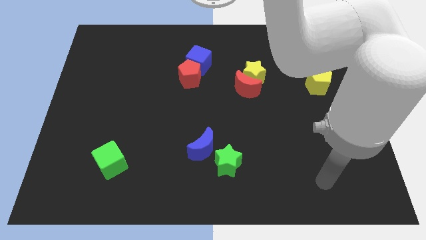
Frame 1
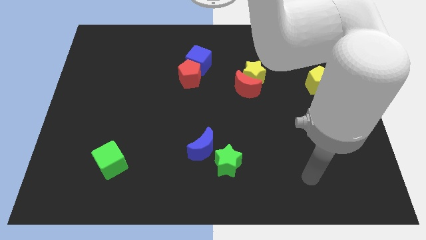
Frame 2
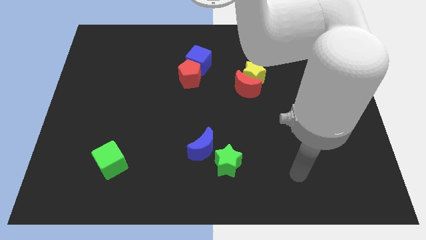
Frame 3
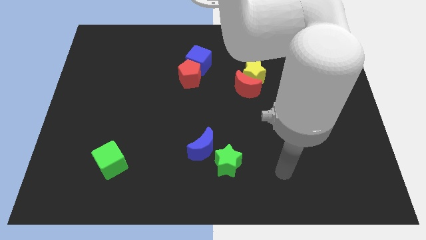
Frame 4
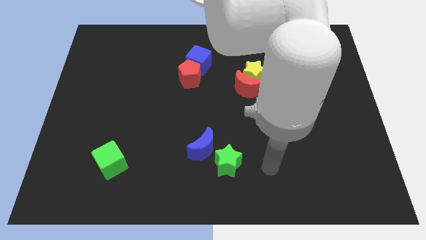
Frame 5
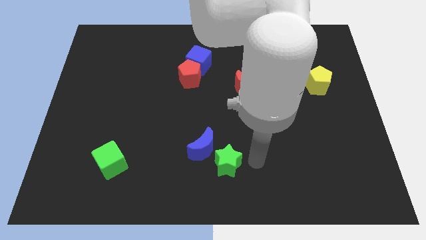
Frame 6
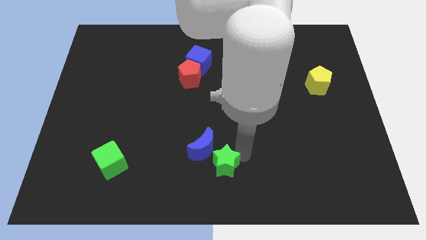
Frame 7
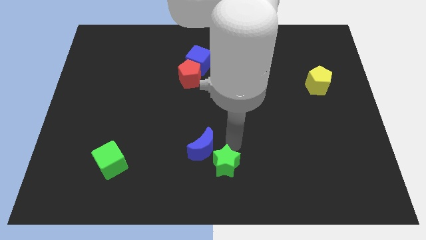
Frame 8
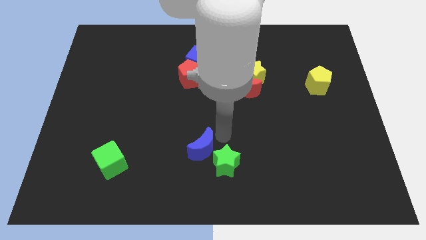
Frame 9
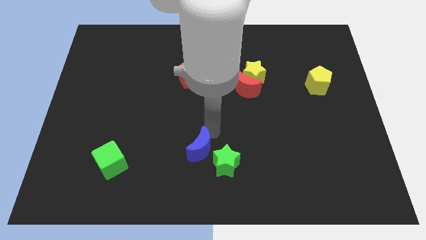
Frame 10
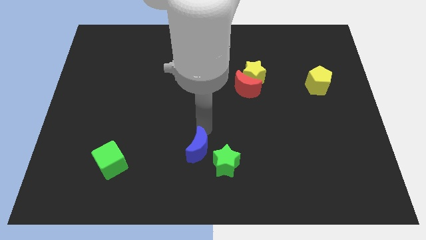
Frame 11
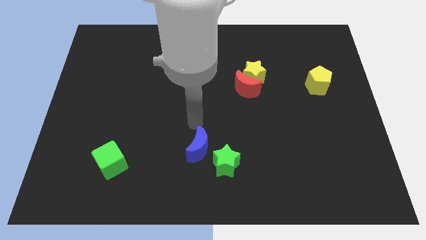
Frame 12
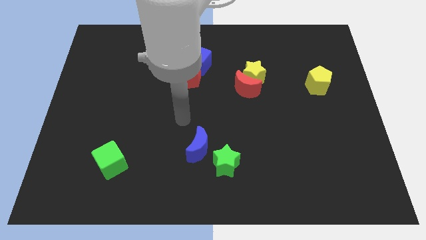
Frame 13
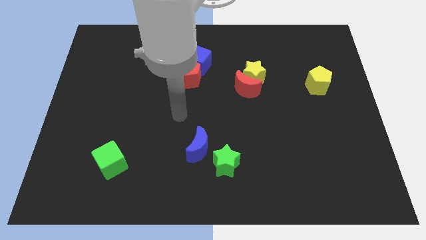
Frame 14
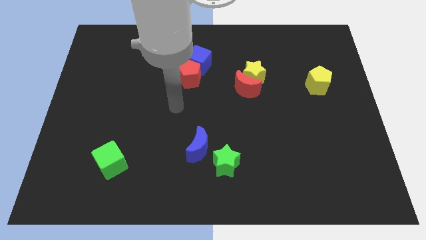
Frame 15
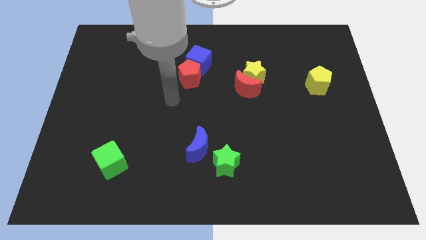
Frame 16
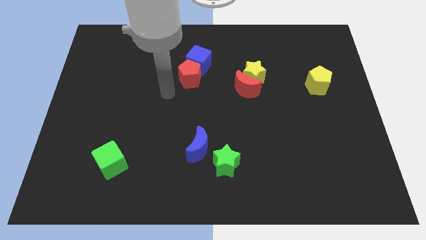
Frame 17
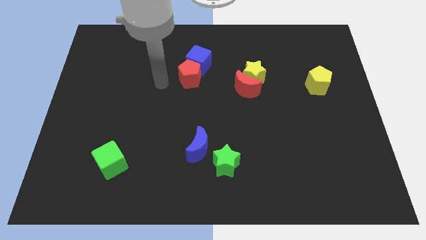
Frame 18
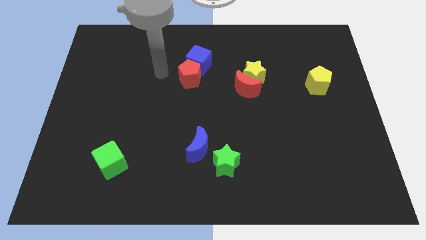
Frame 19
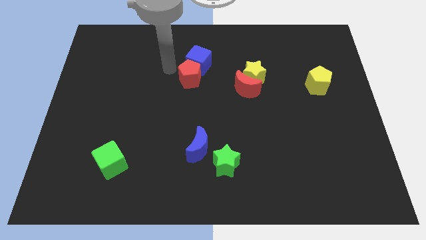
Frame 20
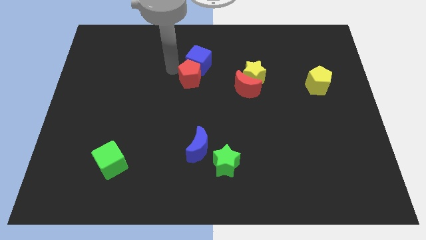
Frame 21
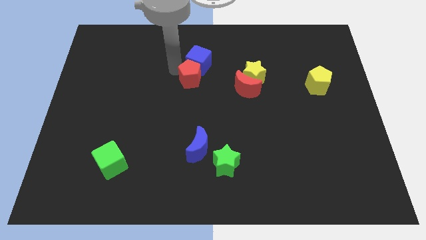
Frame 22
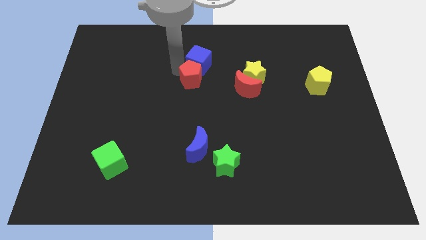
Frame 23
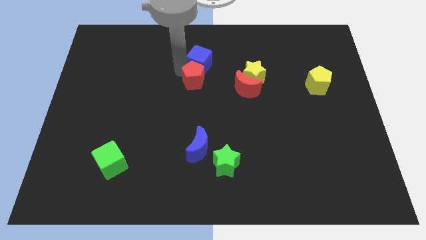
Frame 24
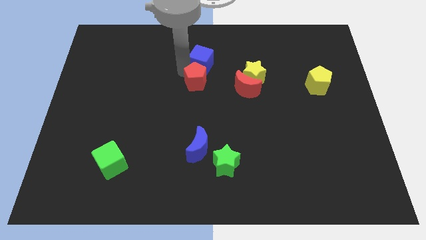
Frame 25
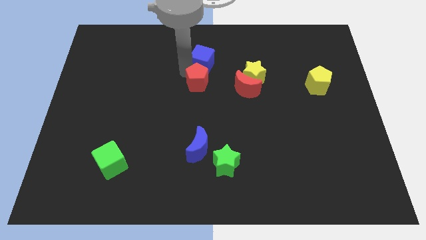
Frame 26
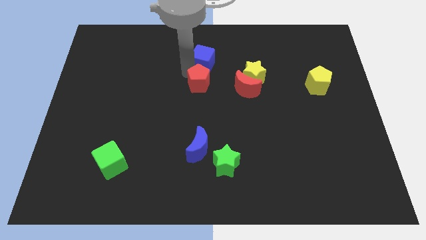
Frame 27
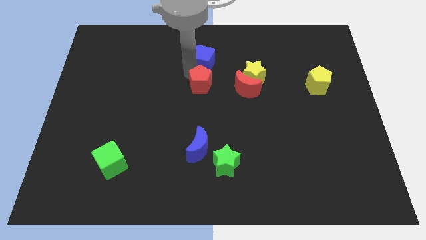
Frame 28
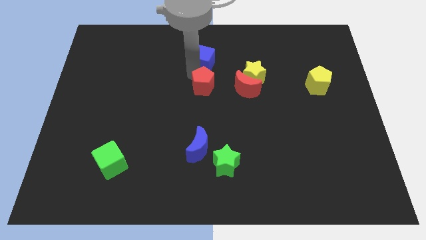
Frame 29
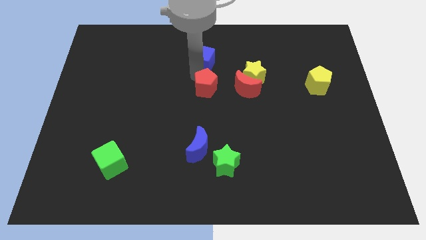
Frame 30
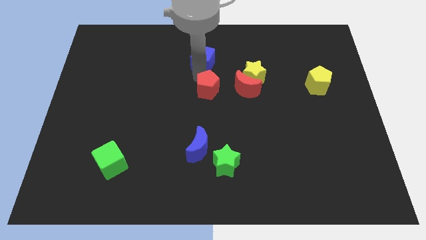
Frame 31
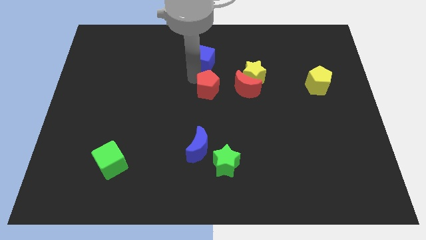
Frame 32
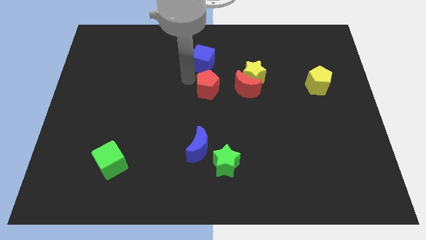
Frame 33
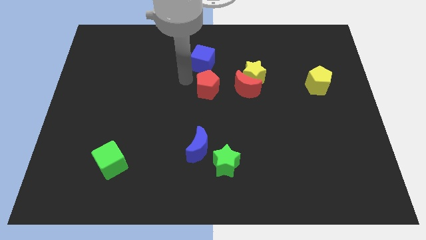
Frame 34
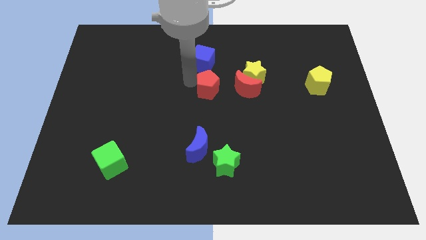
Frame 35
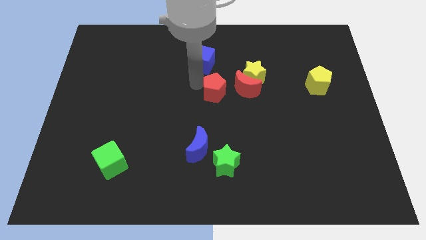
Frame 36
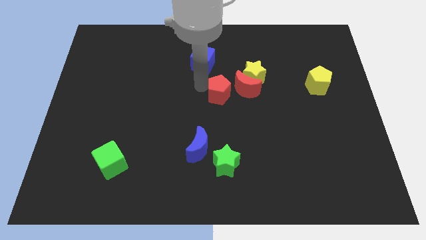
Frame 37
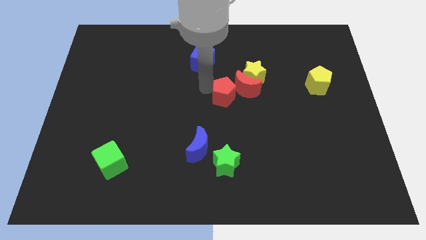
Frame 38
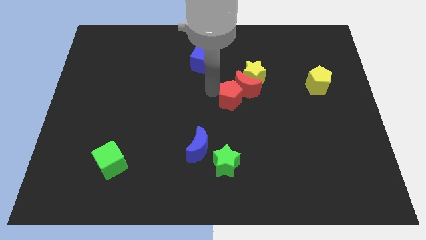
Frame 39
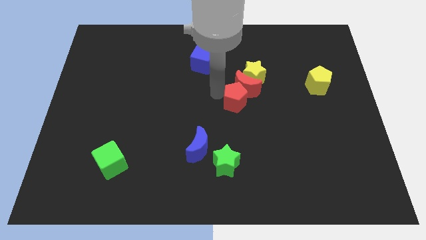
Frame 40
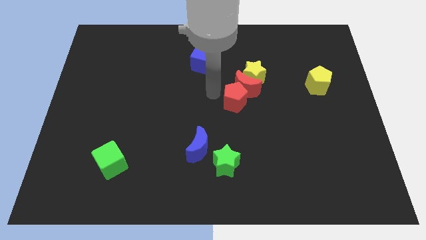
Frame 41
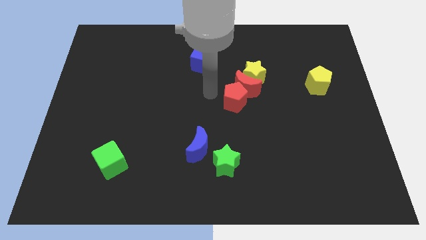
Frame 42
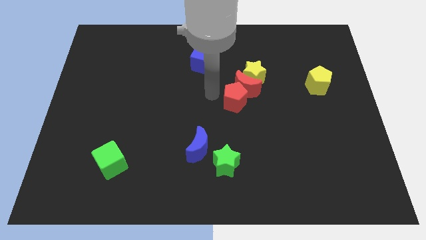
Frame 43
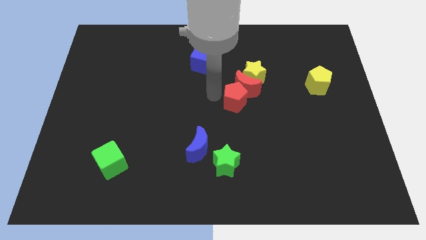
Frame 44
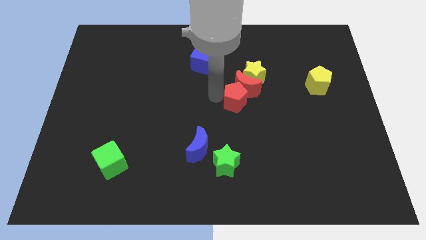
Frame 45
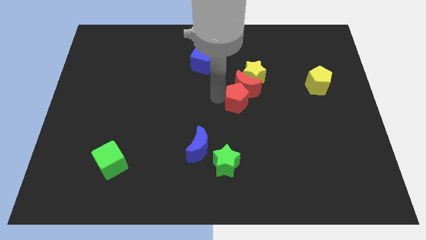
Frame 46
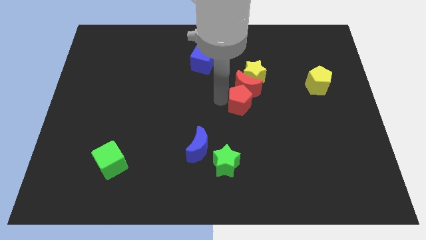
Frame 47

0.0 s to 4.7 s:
put the red pentagon to the bottom right of the red moon

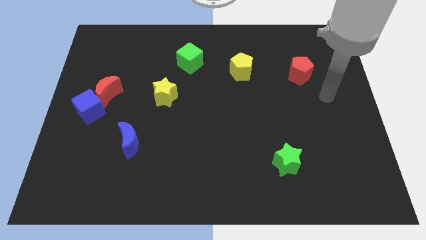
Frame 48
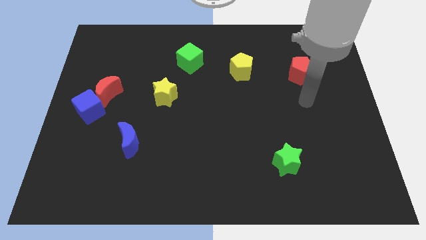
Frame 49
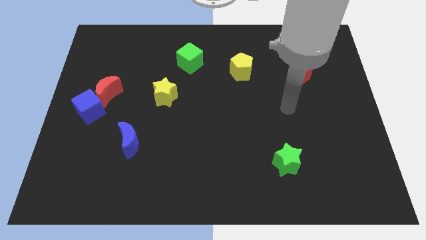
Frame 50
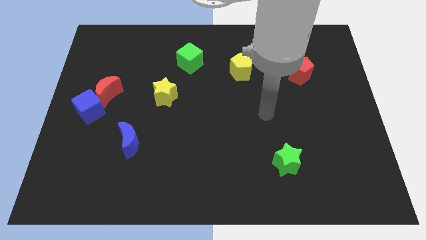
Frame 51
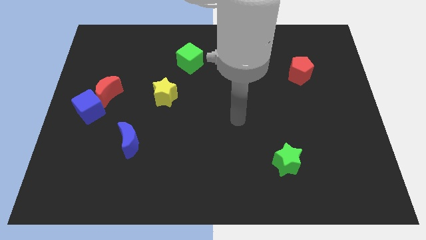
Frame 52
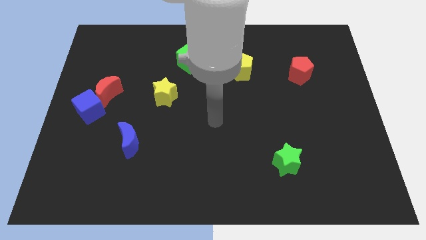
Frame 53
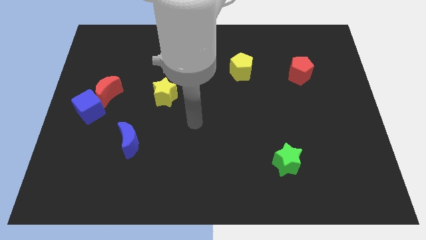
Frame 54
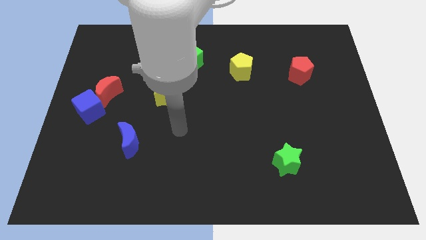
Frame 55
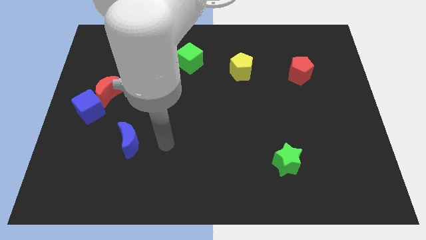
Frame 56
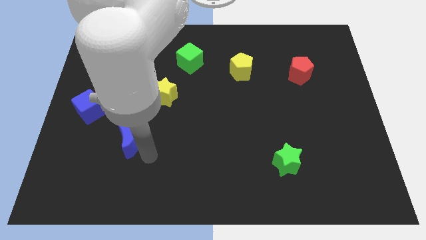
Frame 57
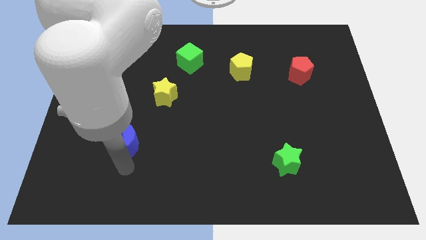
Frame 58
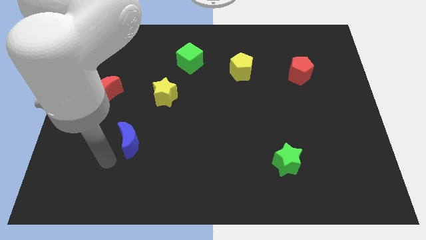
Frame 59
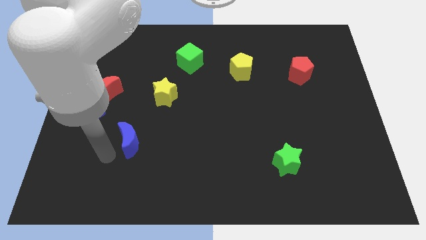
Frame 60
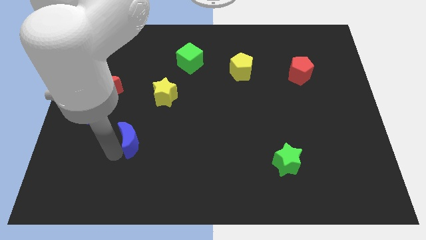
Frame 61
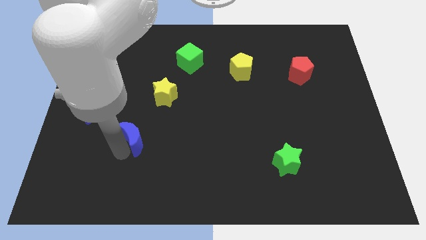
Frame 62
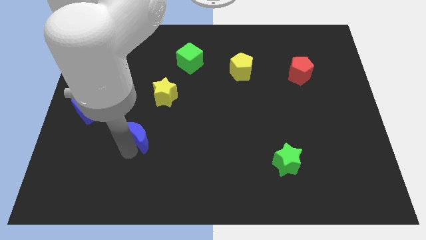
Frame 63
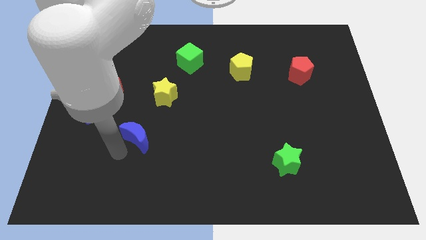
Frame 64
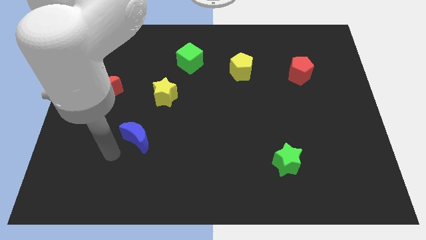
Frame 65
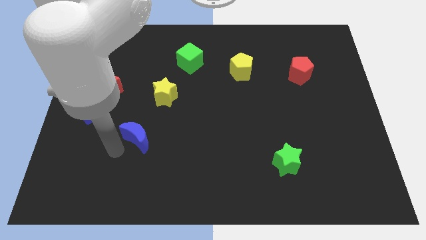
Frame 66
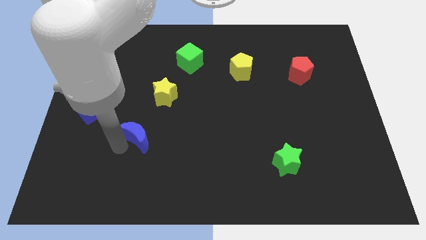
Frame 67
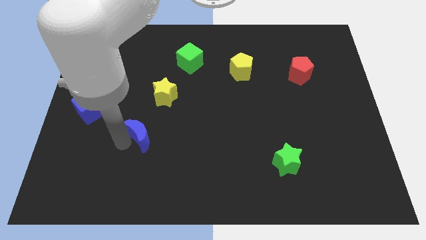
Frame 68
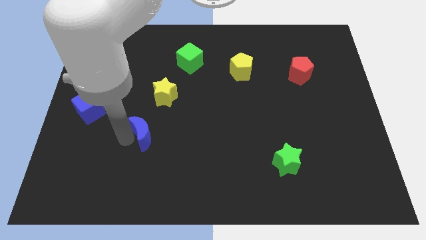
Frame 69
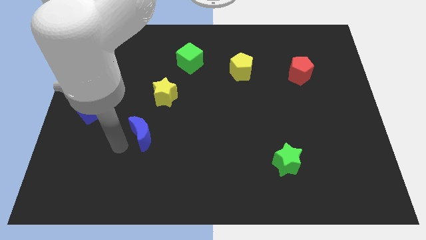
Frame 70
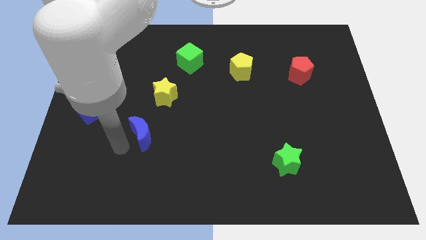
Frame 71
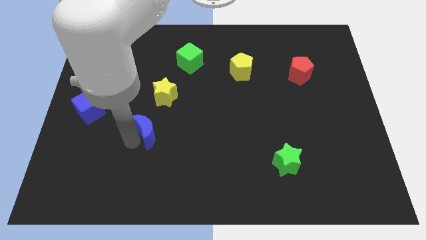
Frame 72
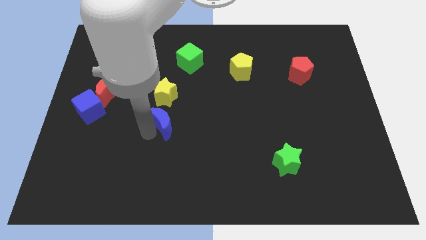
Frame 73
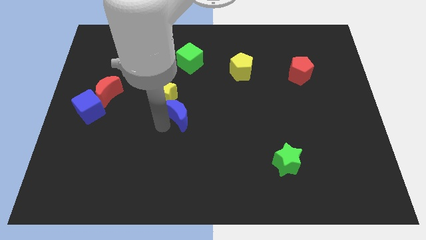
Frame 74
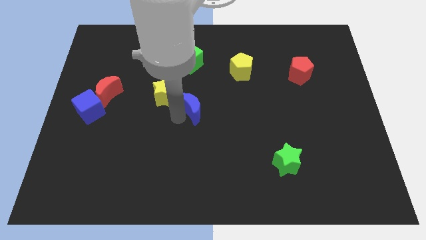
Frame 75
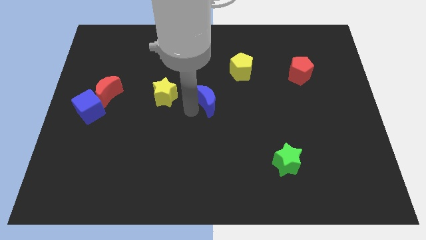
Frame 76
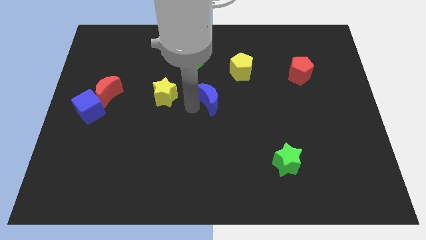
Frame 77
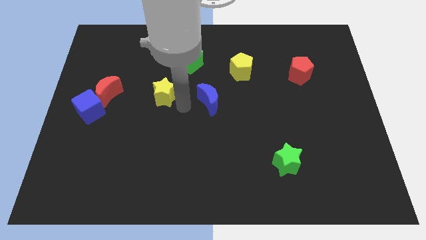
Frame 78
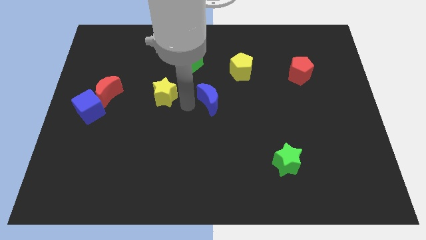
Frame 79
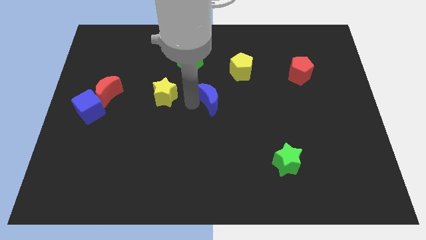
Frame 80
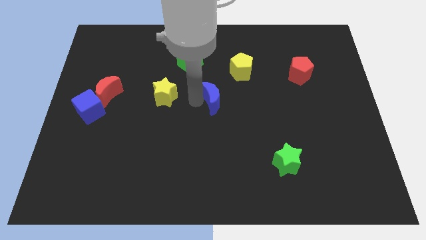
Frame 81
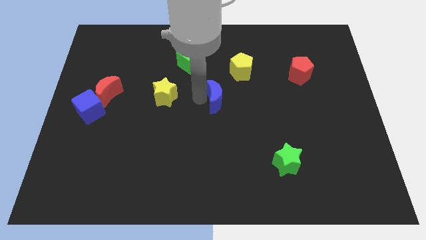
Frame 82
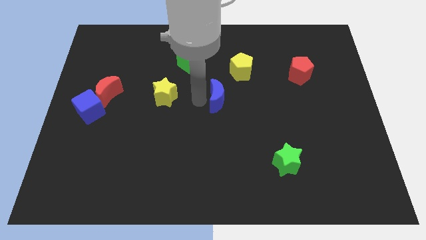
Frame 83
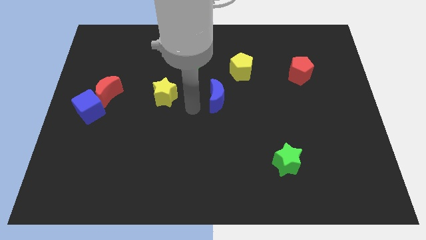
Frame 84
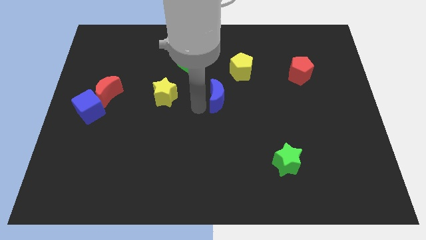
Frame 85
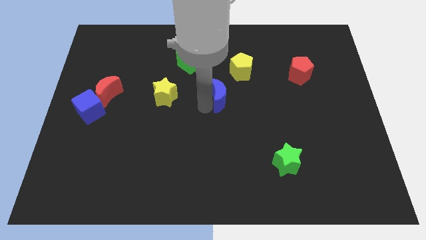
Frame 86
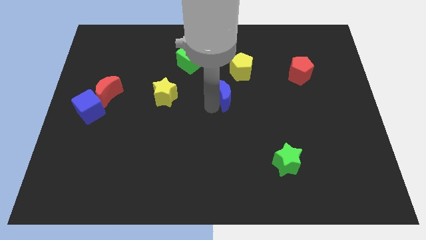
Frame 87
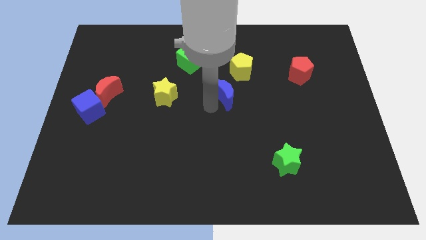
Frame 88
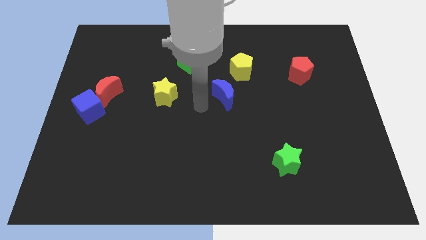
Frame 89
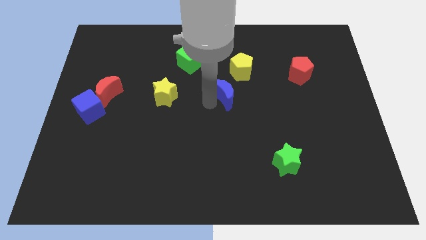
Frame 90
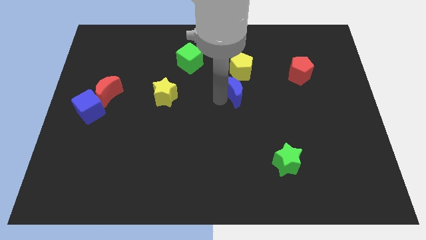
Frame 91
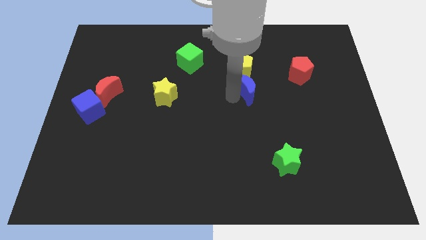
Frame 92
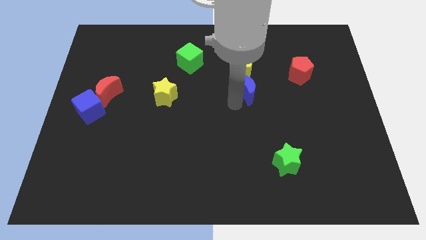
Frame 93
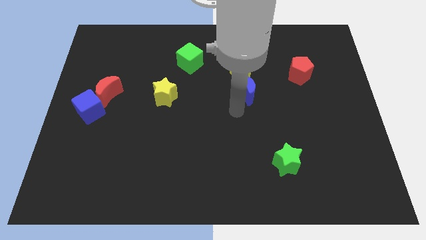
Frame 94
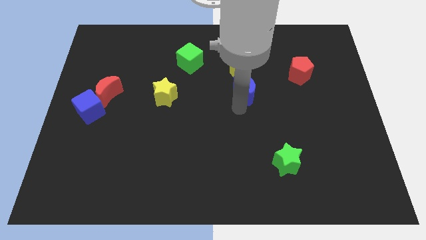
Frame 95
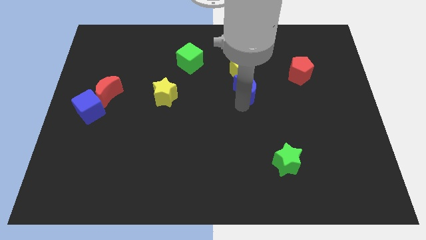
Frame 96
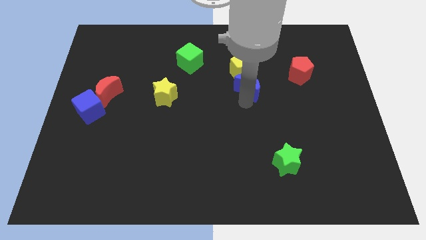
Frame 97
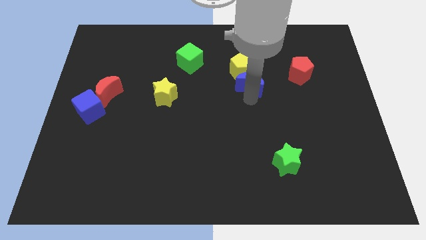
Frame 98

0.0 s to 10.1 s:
put the blue moon left of the red pentagon
